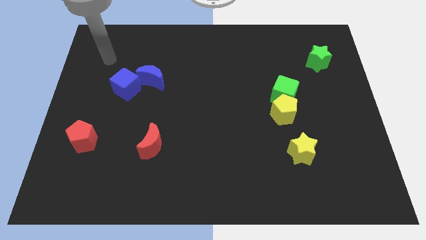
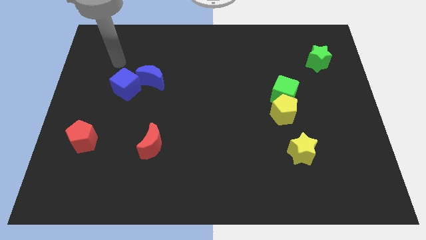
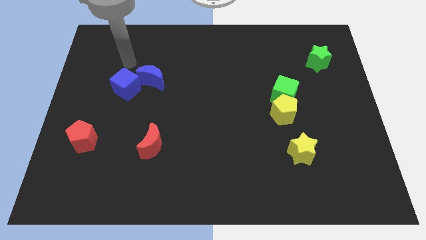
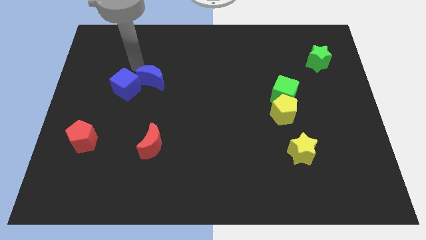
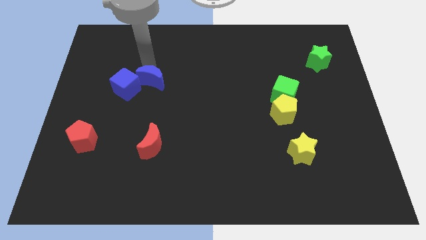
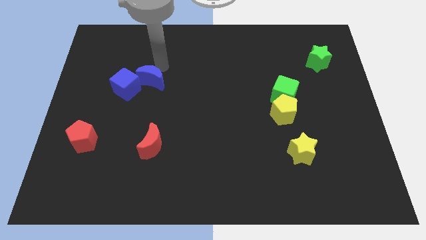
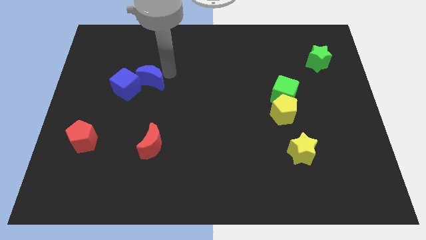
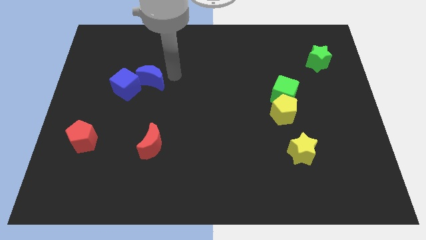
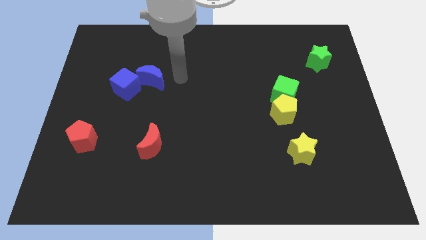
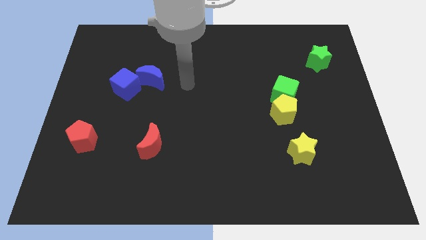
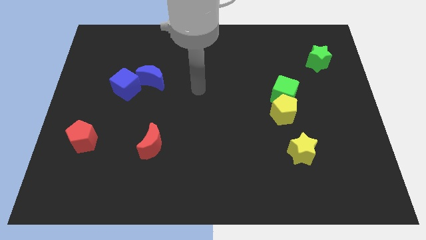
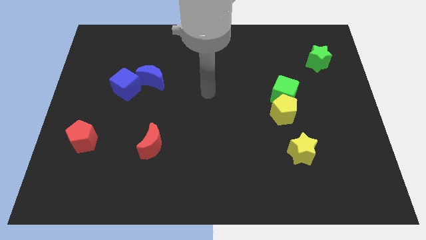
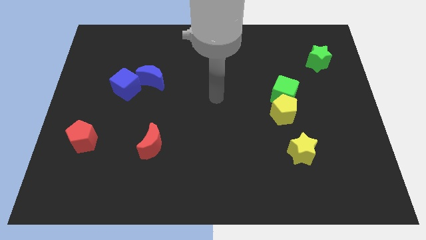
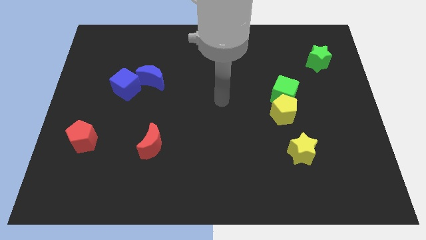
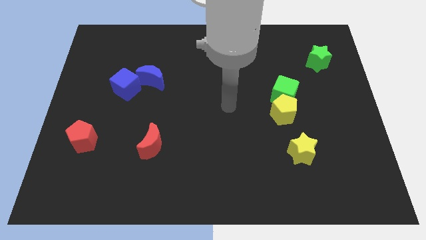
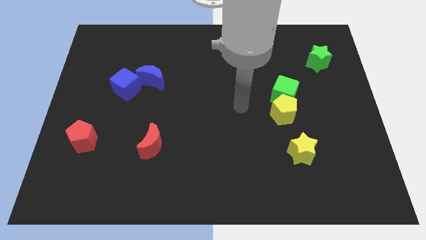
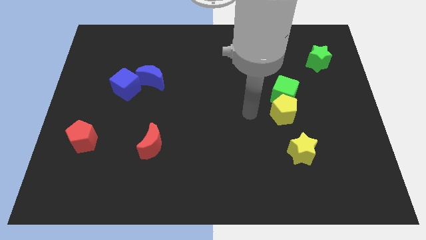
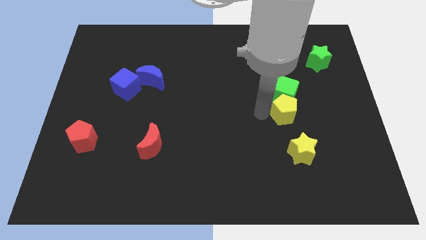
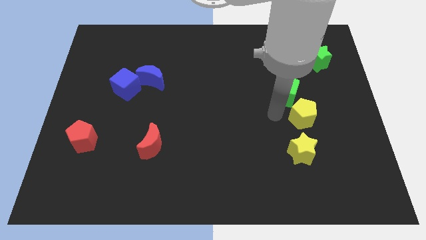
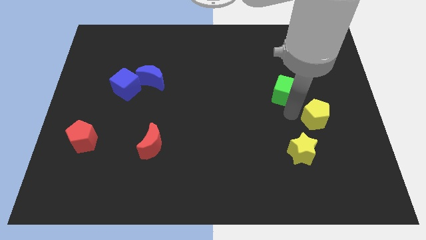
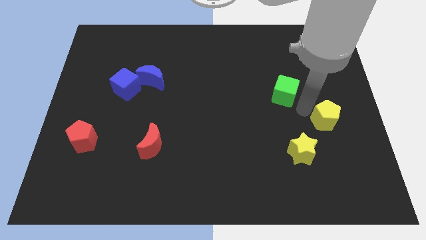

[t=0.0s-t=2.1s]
move the green cube away from the yellow pentagon

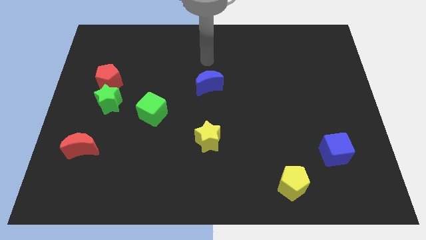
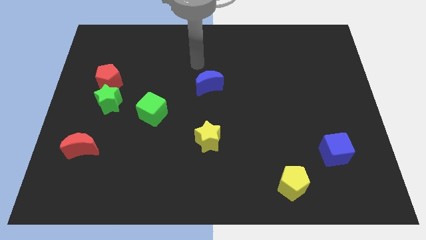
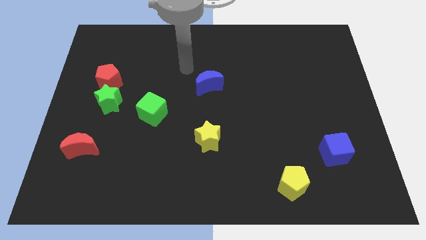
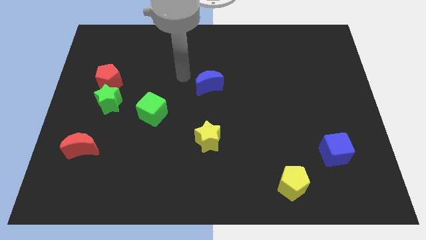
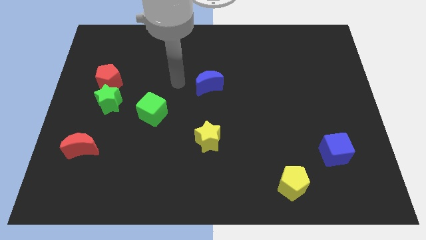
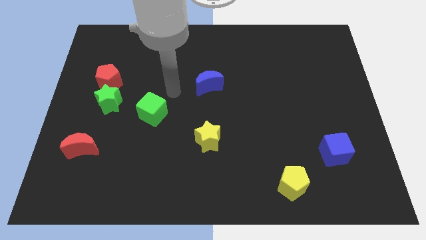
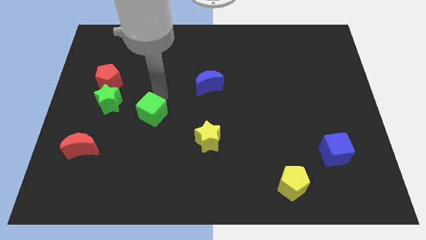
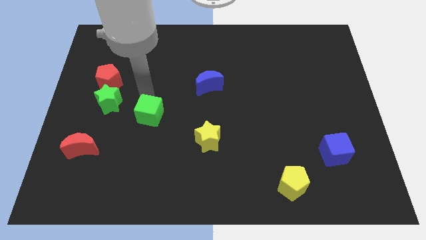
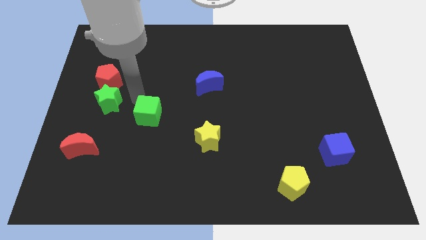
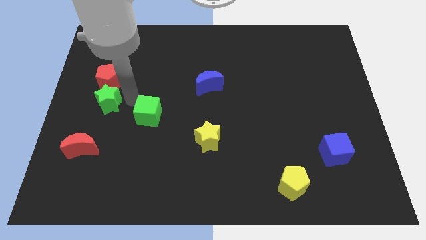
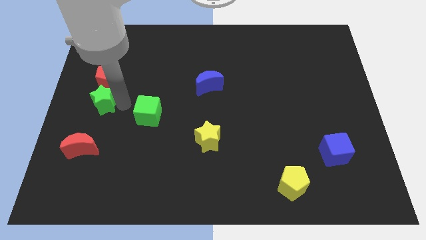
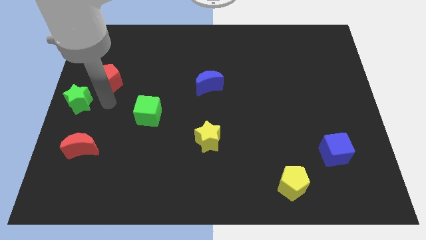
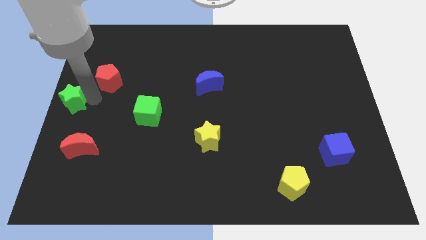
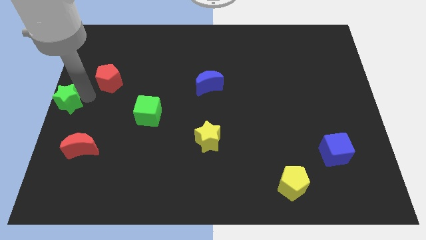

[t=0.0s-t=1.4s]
move the red pentagon away from the green star

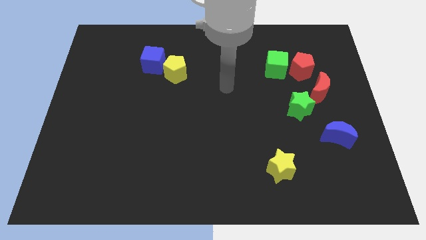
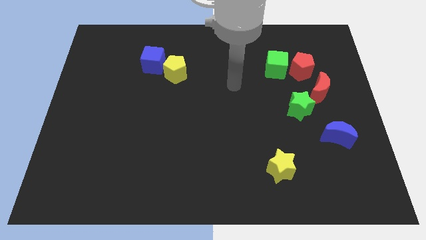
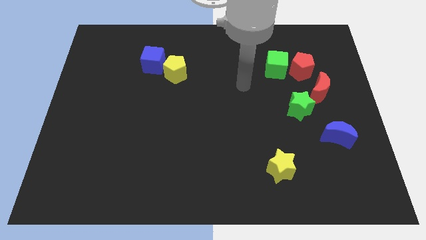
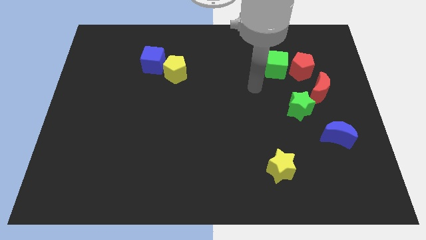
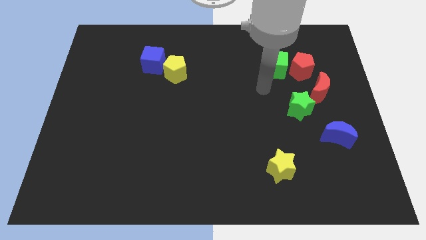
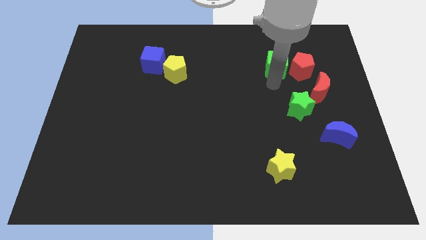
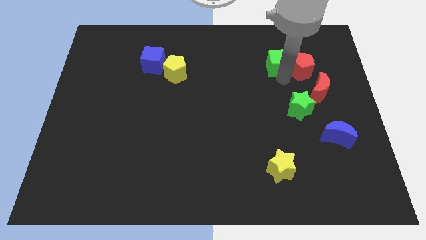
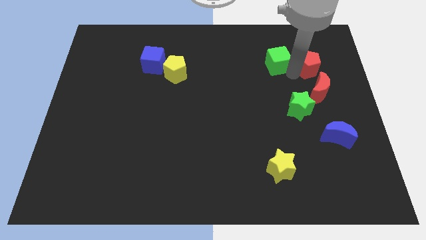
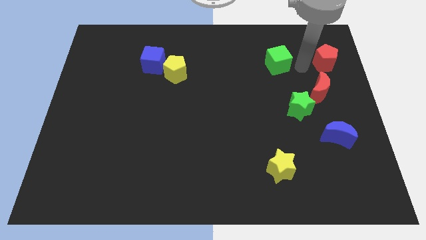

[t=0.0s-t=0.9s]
separate the green cube from the red pentagon

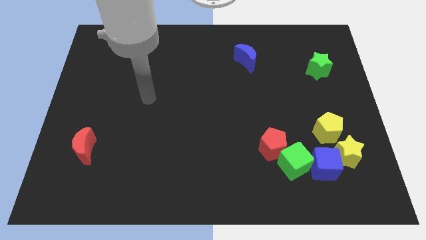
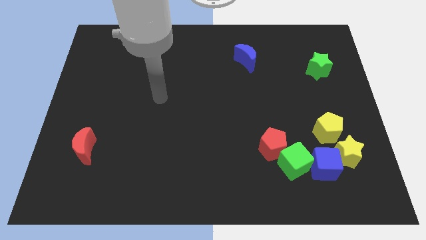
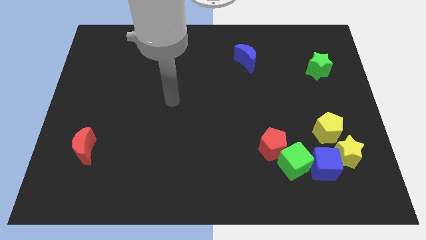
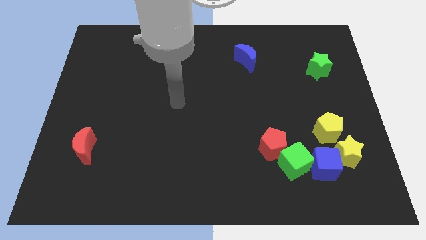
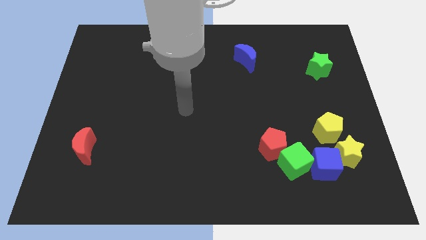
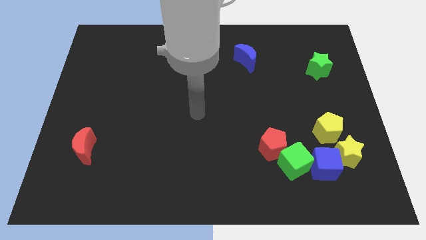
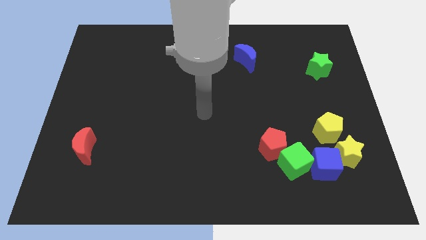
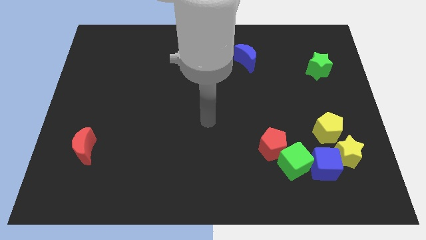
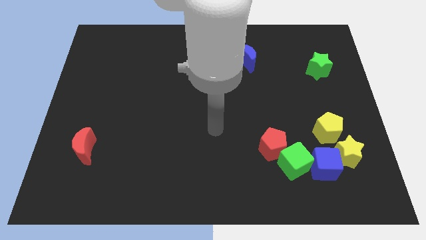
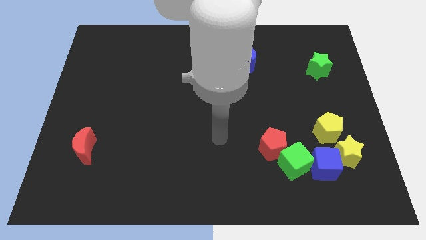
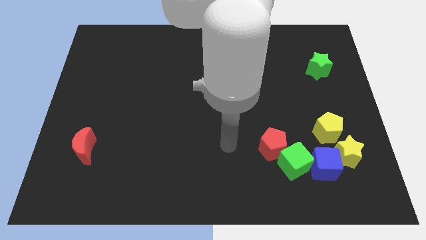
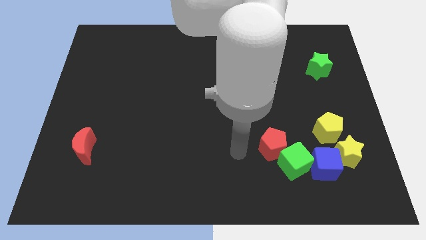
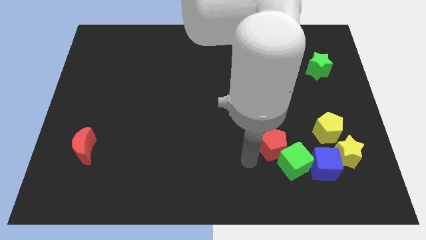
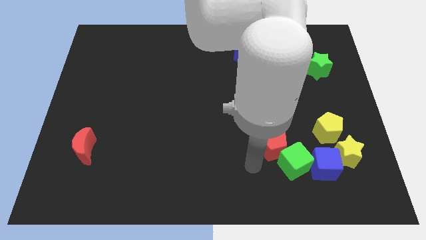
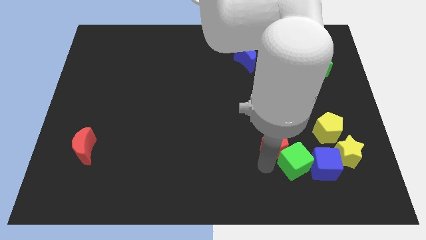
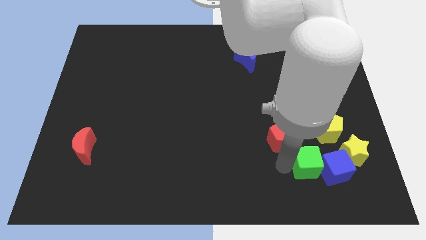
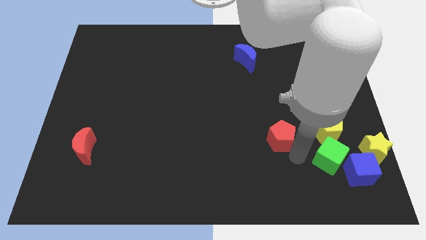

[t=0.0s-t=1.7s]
move the red pentagon away from the green cube

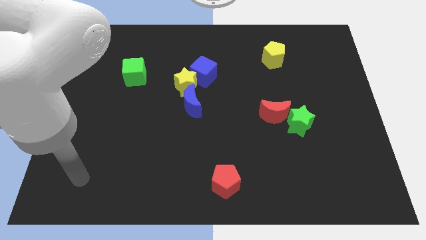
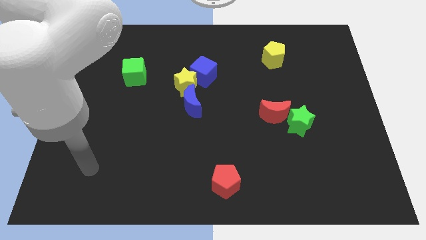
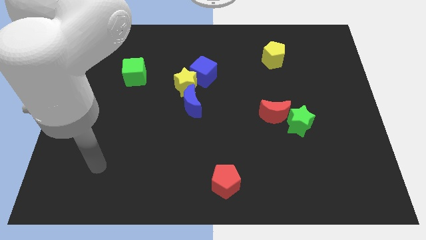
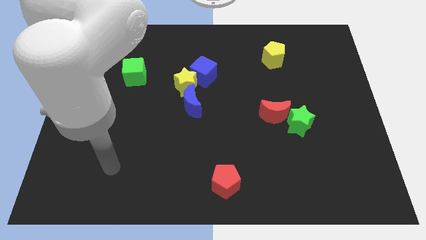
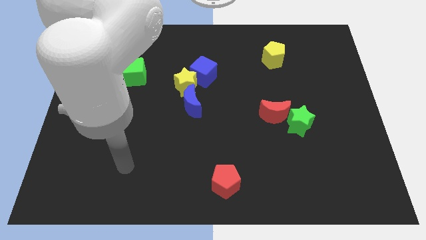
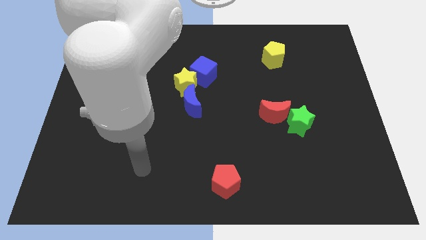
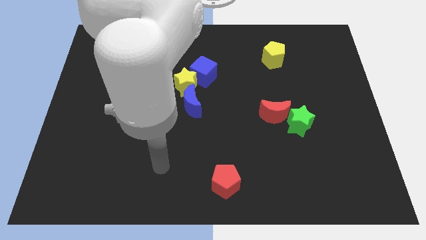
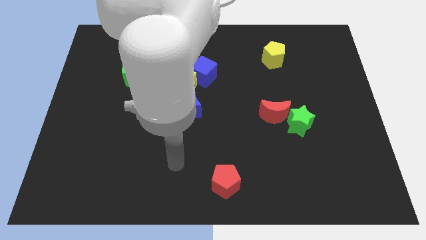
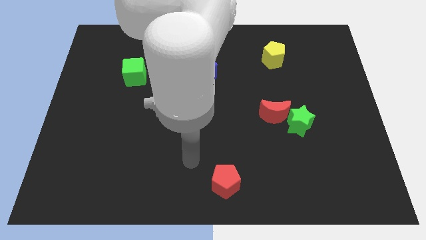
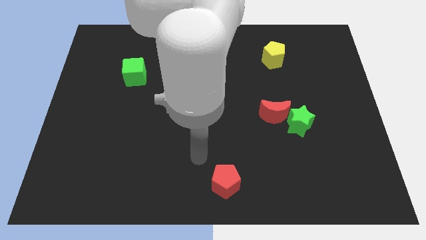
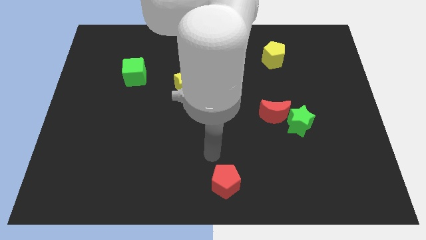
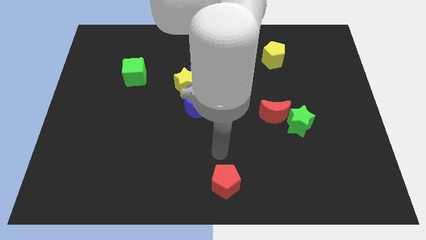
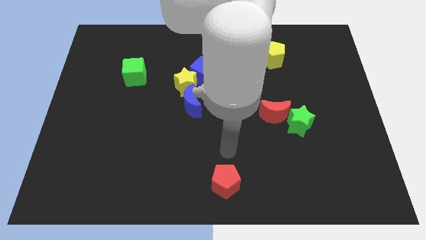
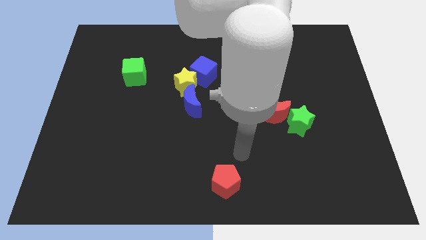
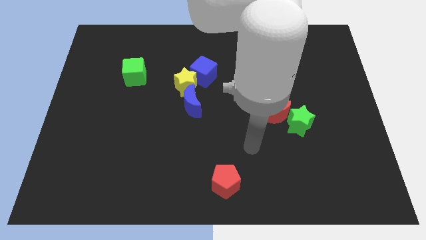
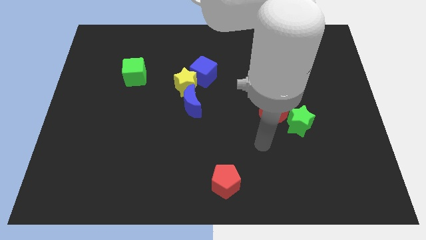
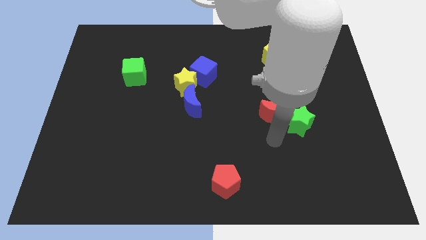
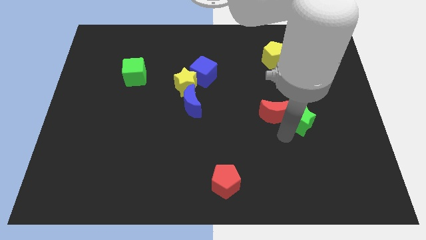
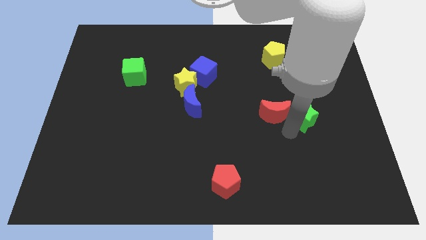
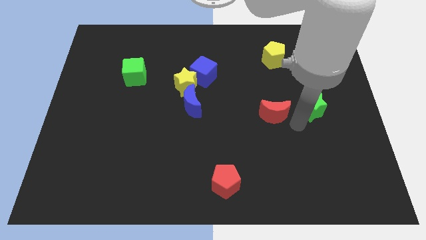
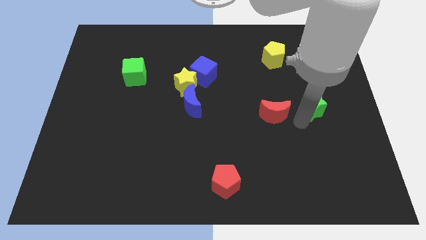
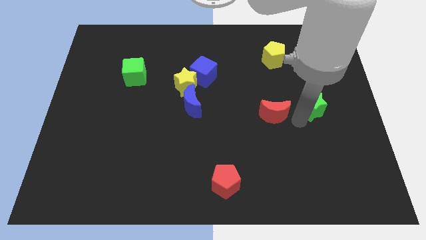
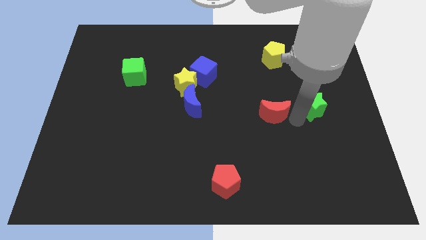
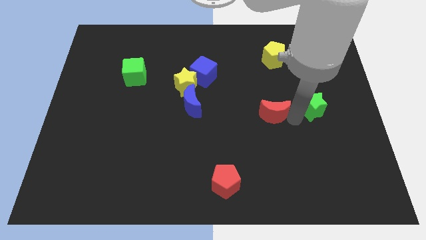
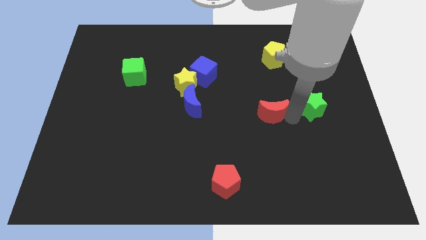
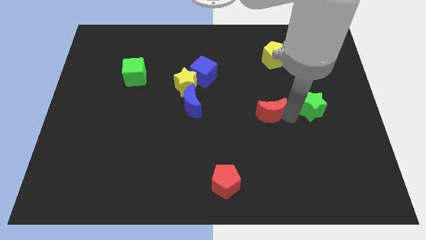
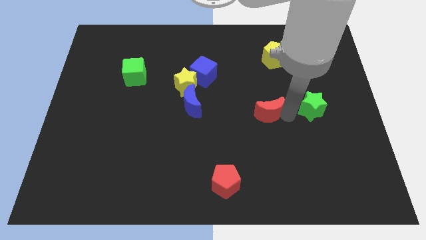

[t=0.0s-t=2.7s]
pull the red moon apart from the green star

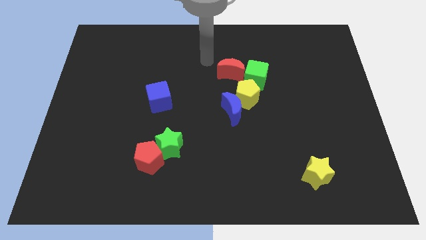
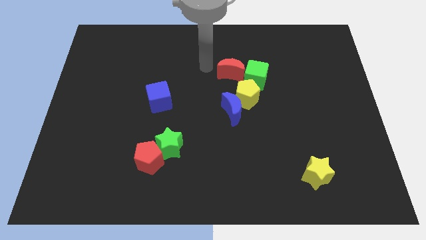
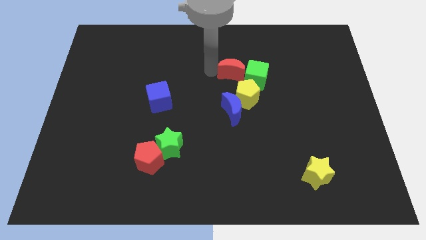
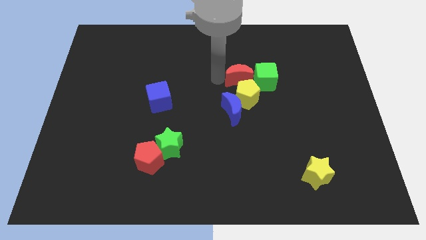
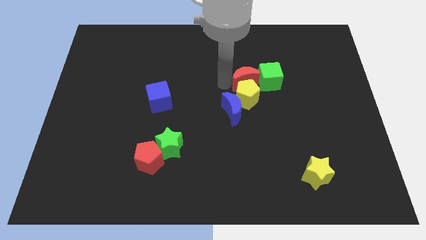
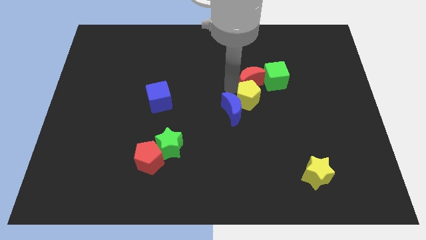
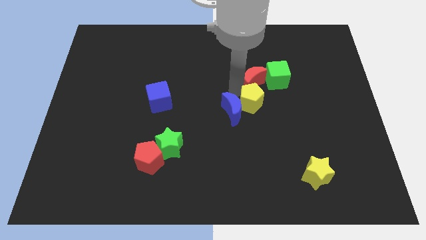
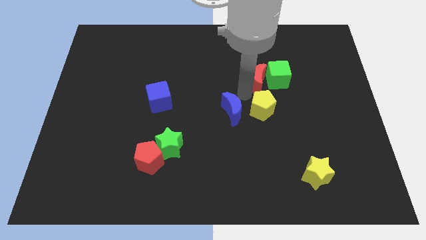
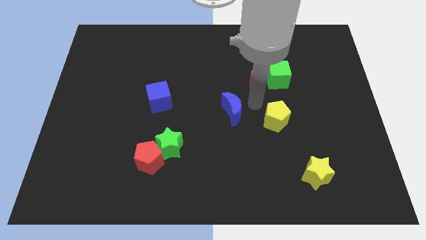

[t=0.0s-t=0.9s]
separate the blue moon from the yellow pentagon
